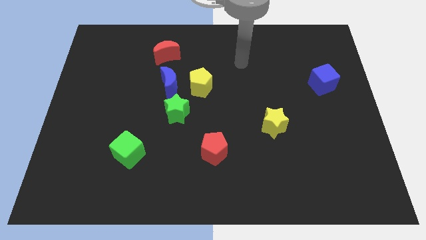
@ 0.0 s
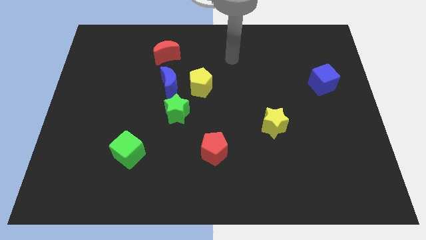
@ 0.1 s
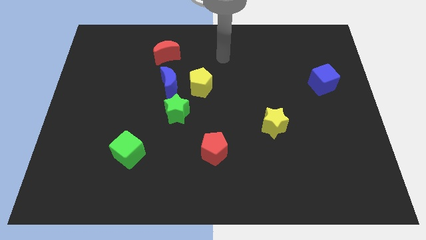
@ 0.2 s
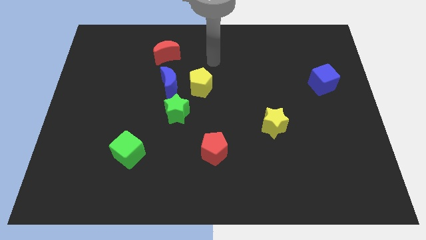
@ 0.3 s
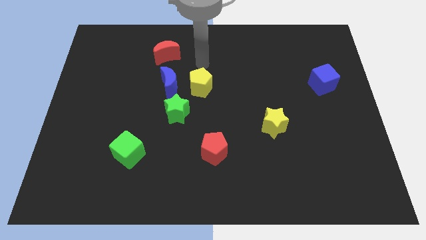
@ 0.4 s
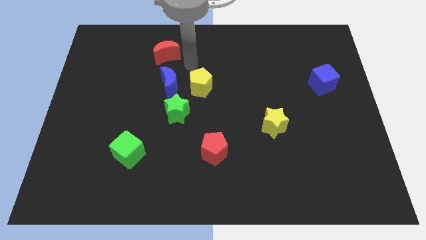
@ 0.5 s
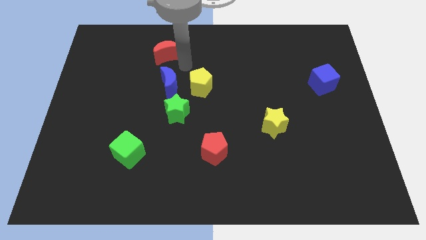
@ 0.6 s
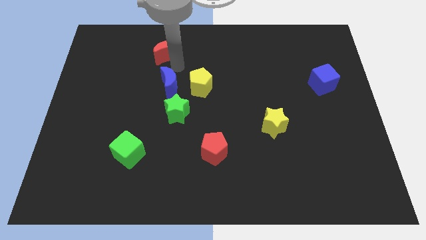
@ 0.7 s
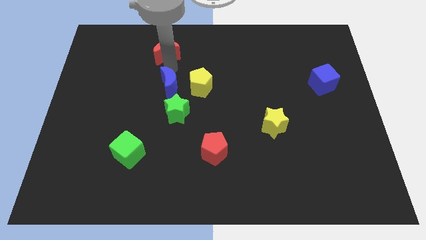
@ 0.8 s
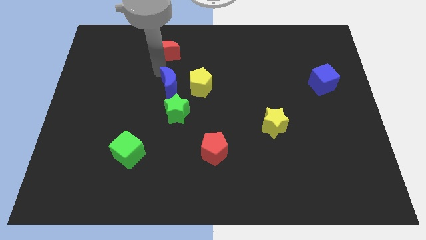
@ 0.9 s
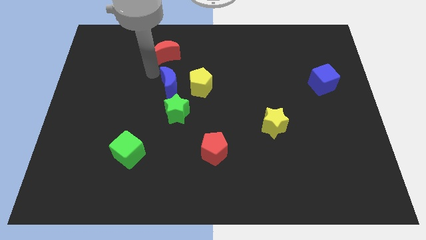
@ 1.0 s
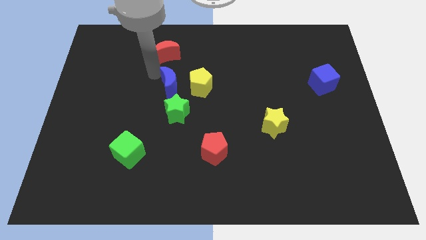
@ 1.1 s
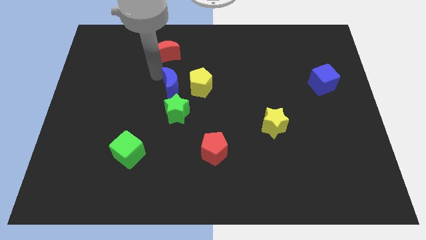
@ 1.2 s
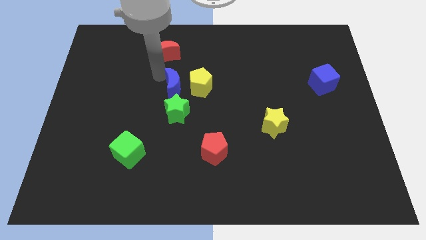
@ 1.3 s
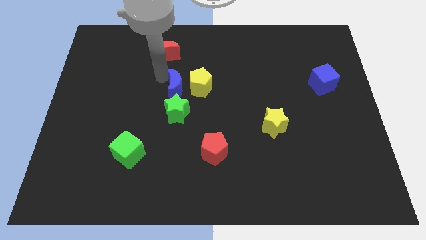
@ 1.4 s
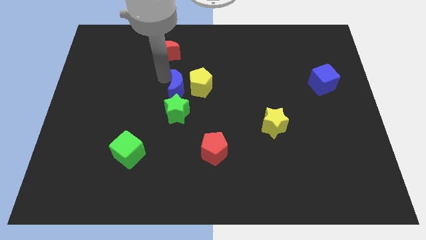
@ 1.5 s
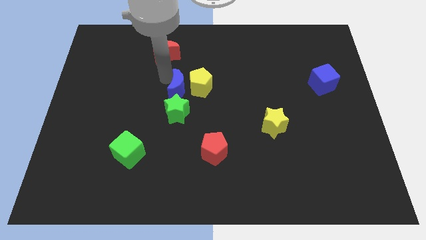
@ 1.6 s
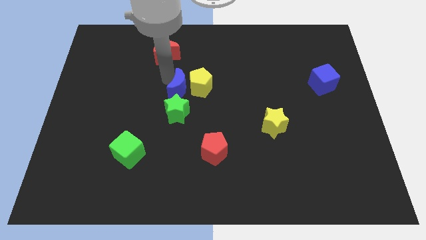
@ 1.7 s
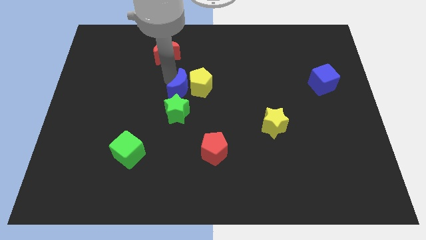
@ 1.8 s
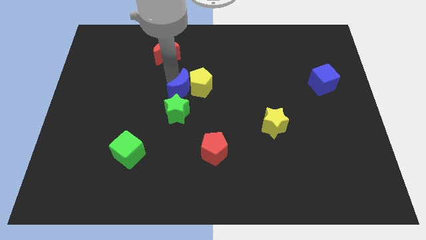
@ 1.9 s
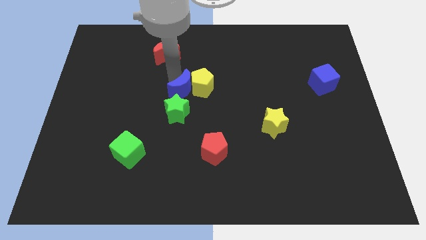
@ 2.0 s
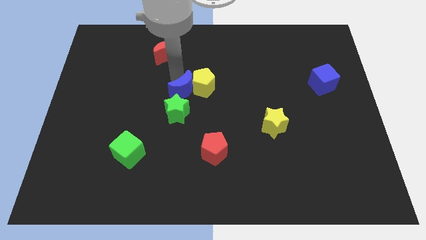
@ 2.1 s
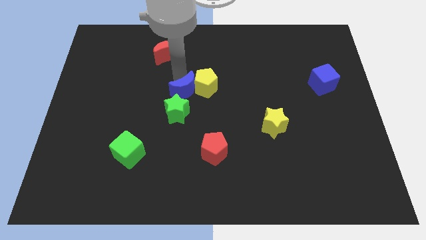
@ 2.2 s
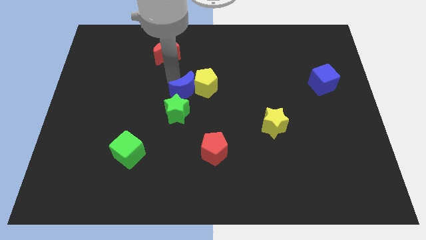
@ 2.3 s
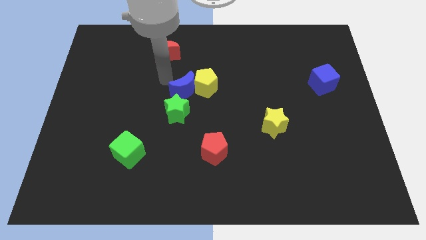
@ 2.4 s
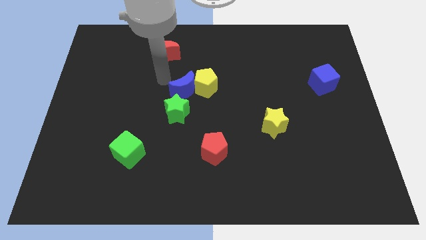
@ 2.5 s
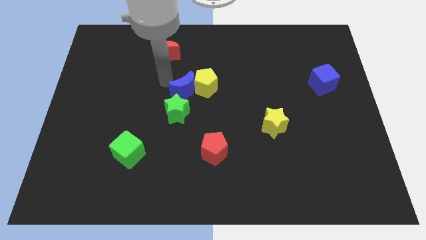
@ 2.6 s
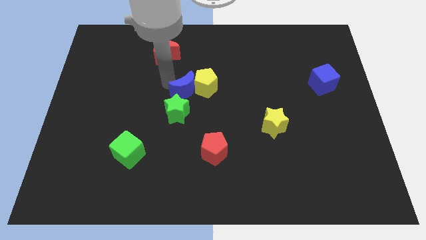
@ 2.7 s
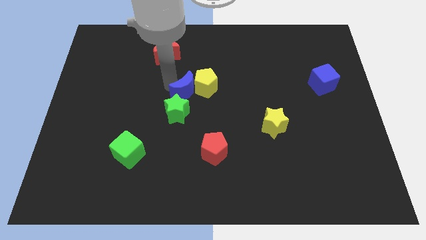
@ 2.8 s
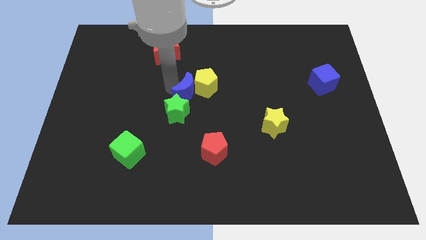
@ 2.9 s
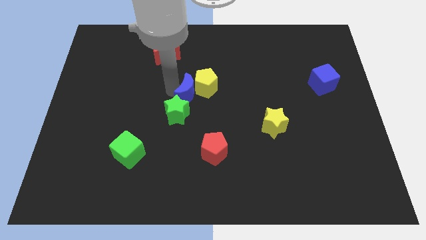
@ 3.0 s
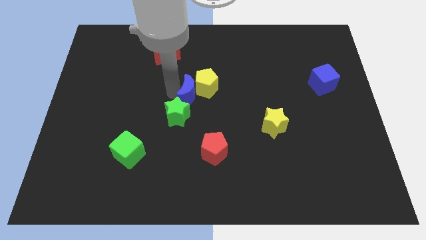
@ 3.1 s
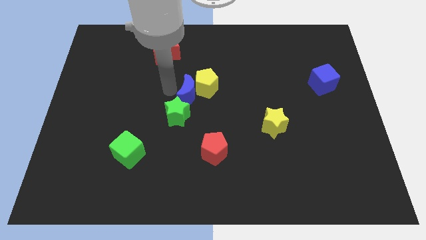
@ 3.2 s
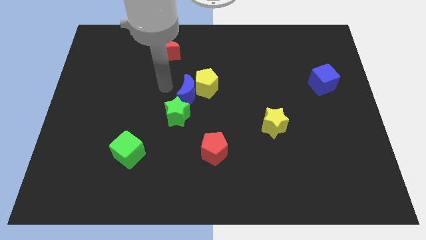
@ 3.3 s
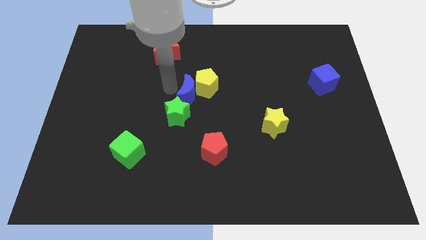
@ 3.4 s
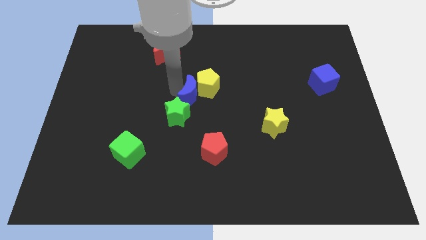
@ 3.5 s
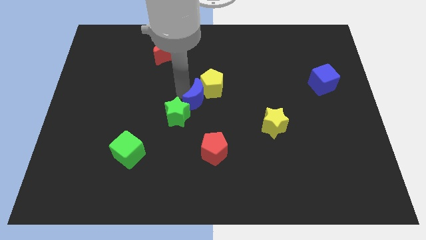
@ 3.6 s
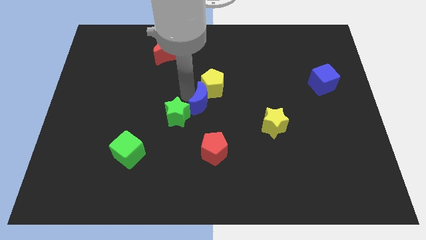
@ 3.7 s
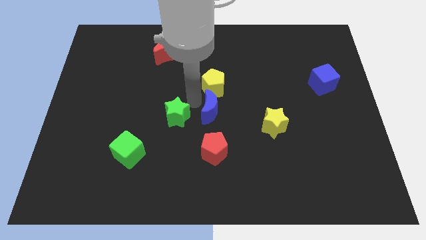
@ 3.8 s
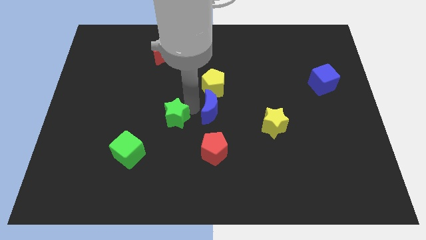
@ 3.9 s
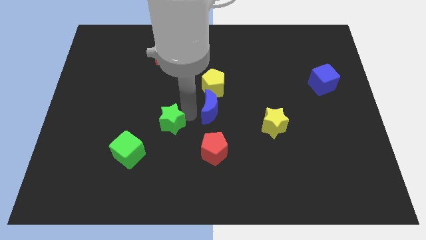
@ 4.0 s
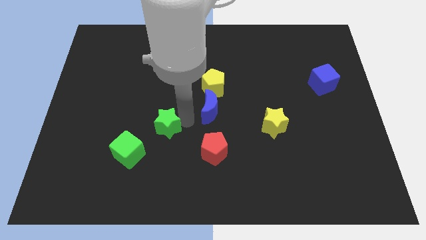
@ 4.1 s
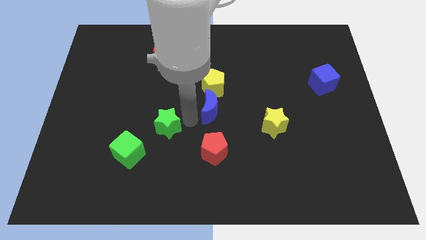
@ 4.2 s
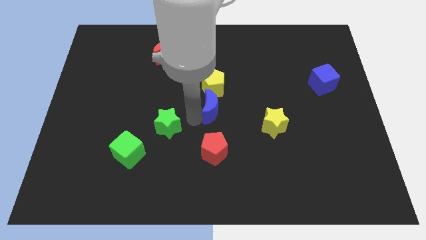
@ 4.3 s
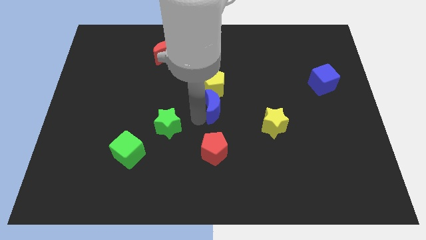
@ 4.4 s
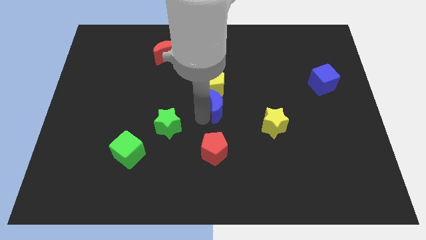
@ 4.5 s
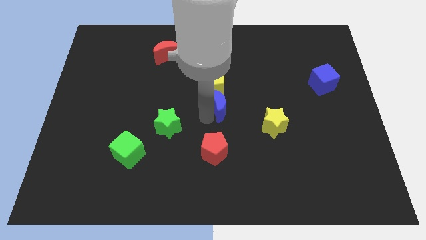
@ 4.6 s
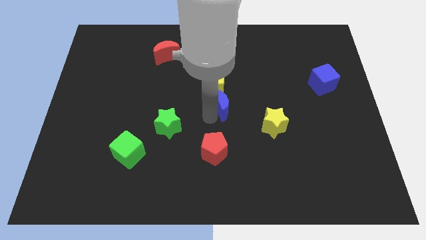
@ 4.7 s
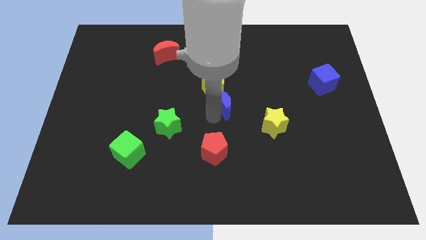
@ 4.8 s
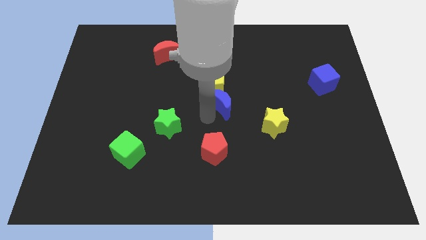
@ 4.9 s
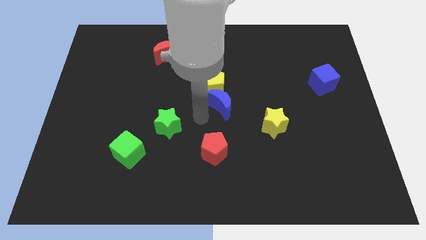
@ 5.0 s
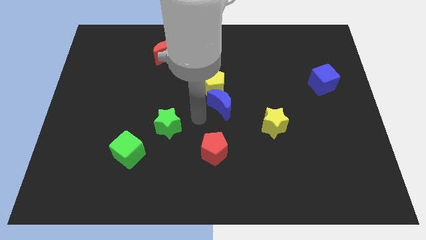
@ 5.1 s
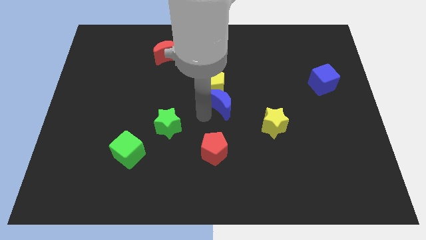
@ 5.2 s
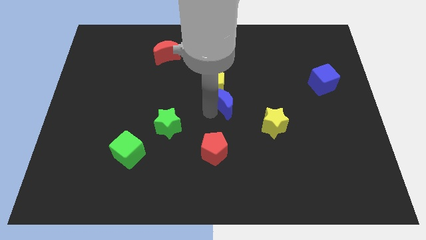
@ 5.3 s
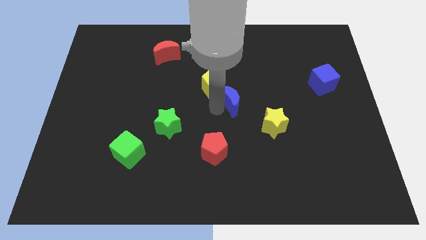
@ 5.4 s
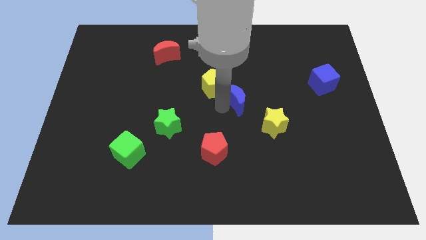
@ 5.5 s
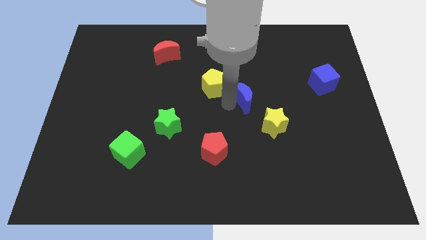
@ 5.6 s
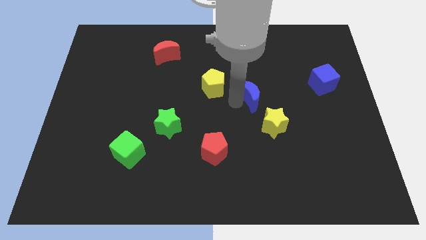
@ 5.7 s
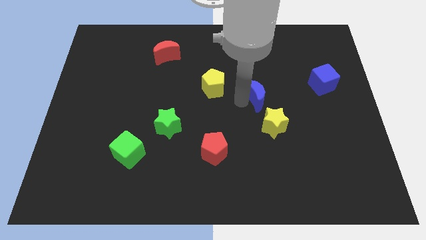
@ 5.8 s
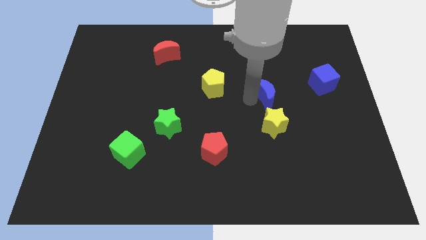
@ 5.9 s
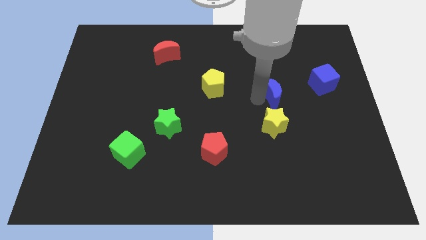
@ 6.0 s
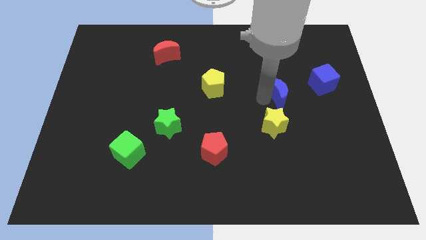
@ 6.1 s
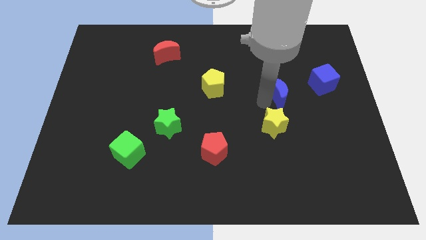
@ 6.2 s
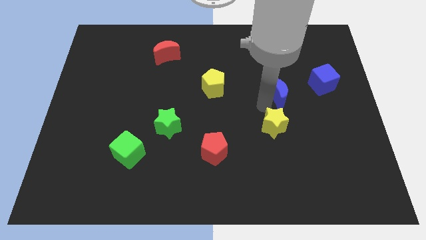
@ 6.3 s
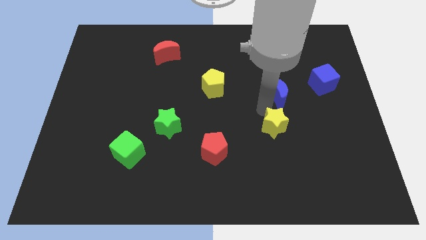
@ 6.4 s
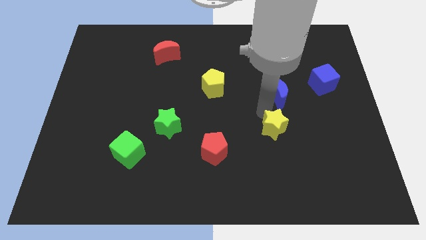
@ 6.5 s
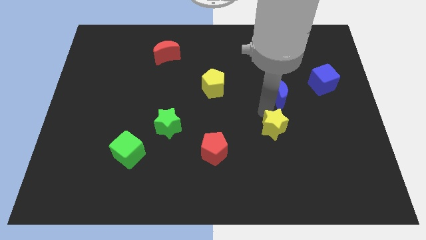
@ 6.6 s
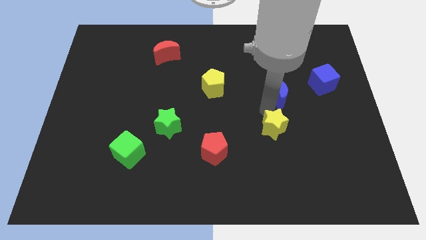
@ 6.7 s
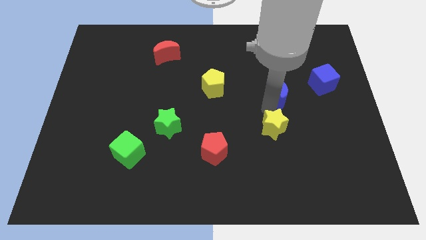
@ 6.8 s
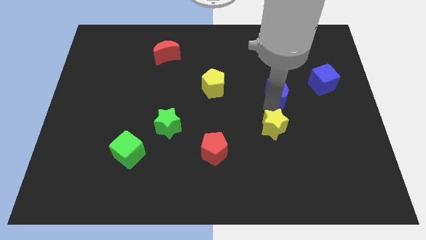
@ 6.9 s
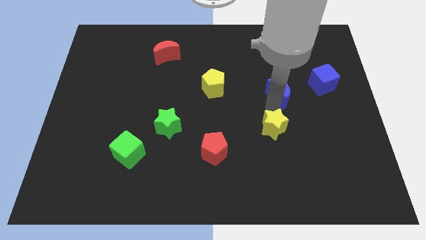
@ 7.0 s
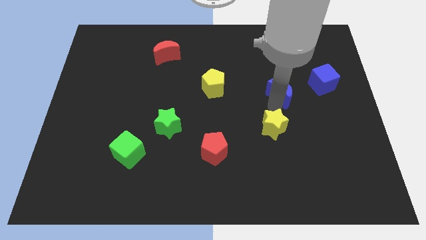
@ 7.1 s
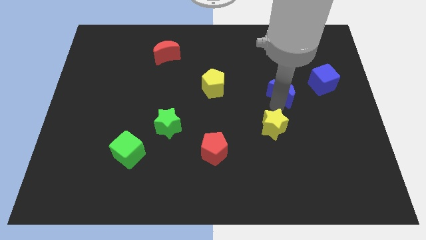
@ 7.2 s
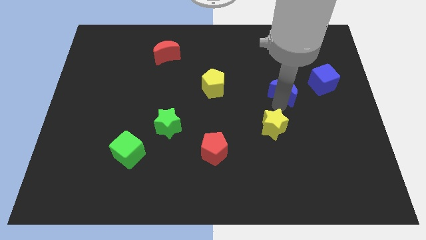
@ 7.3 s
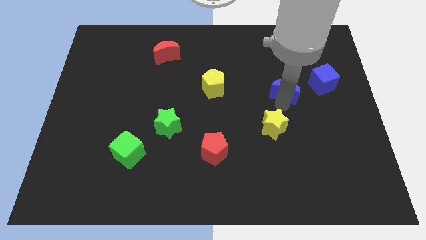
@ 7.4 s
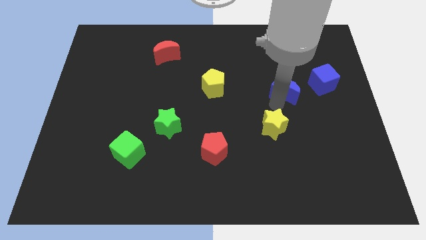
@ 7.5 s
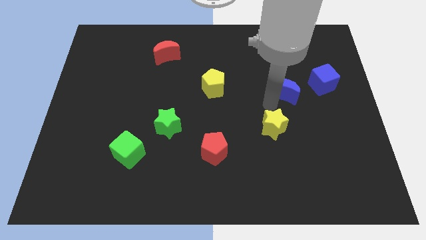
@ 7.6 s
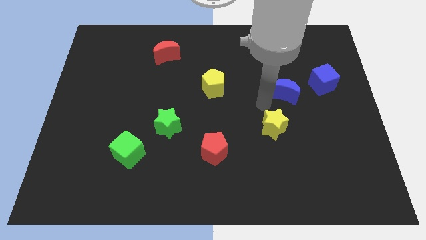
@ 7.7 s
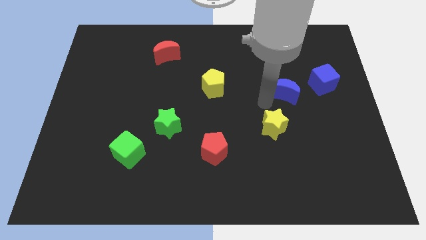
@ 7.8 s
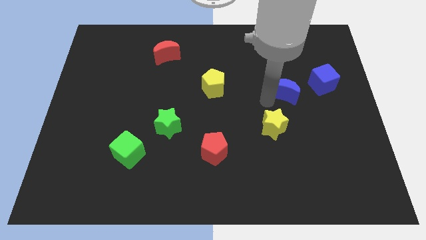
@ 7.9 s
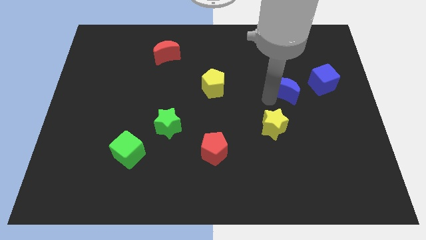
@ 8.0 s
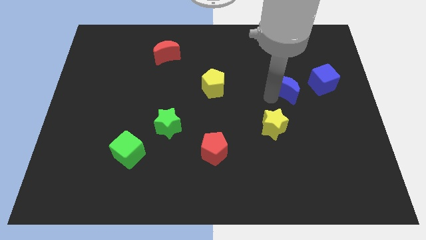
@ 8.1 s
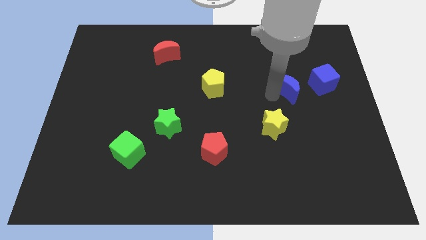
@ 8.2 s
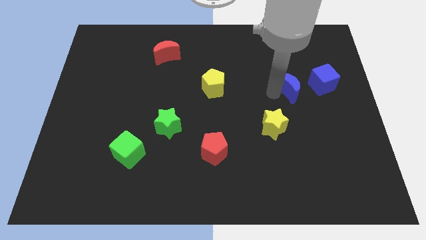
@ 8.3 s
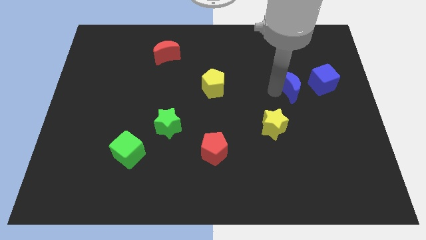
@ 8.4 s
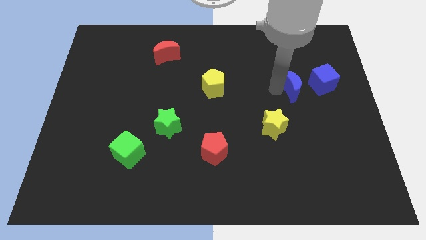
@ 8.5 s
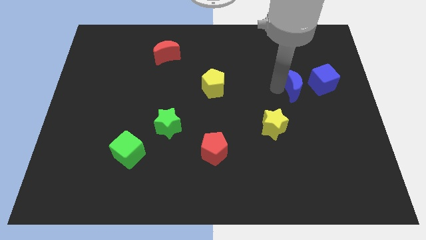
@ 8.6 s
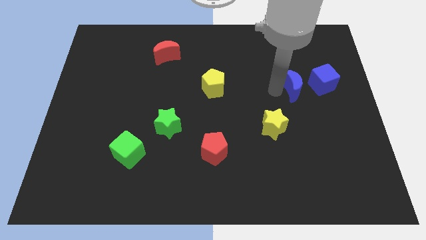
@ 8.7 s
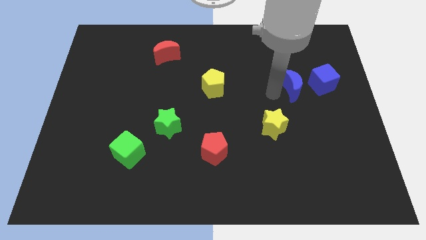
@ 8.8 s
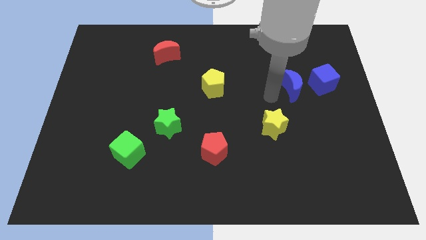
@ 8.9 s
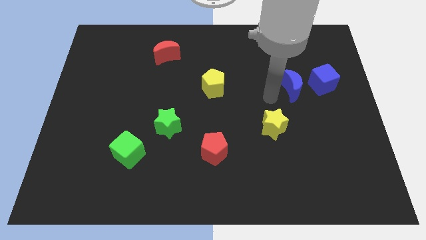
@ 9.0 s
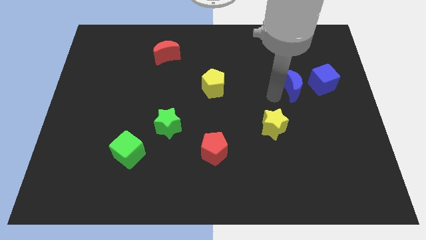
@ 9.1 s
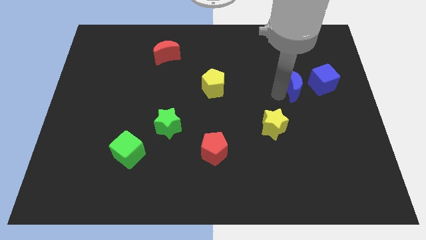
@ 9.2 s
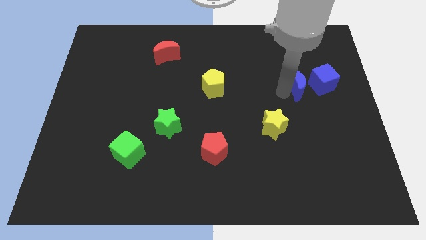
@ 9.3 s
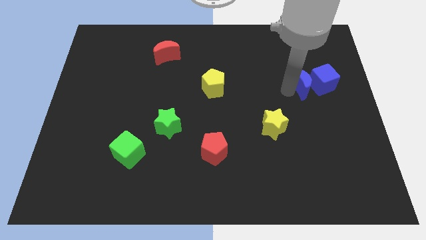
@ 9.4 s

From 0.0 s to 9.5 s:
push the blue moon next to the blue cube
